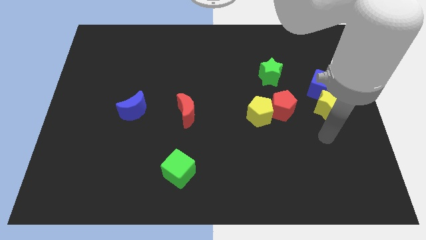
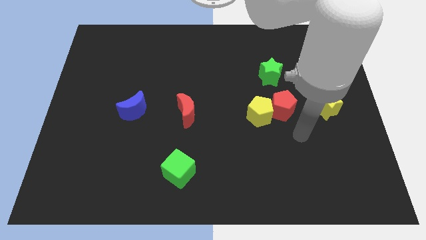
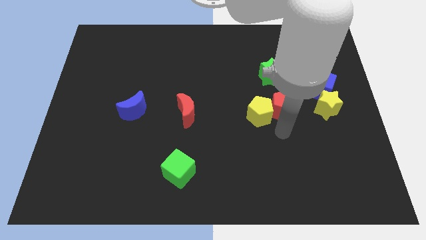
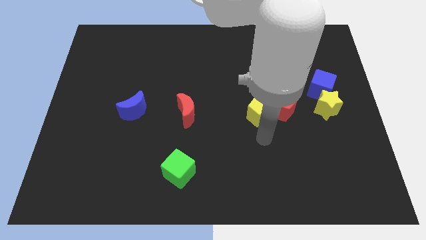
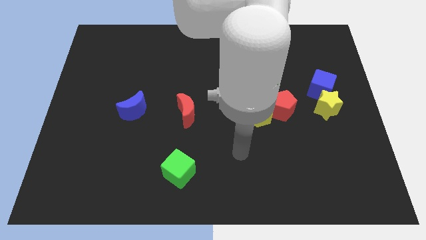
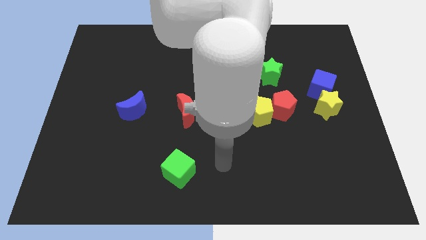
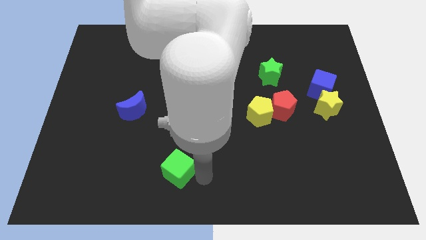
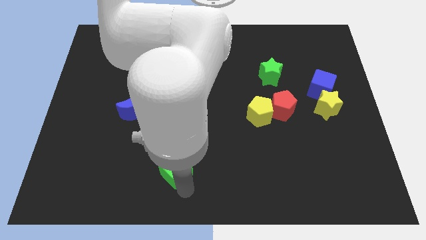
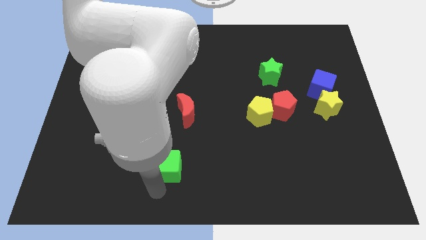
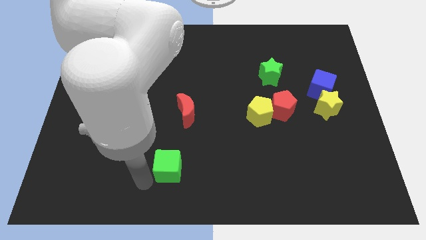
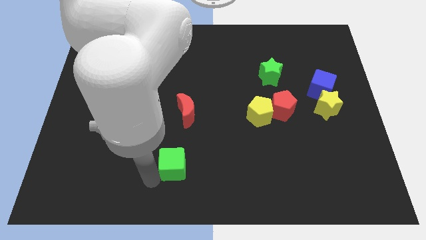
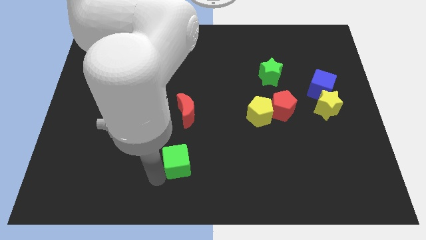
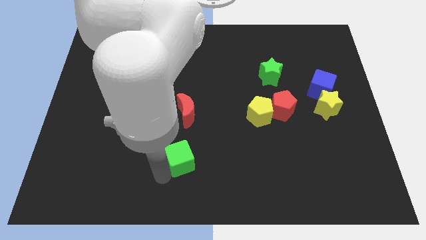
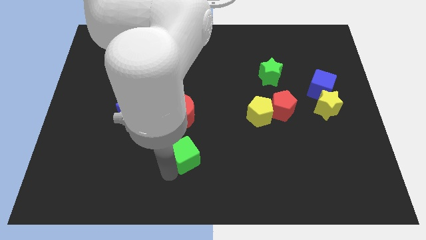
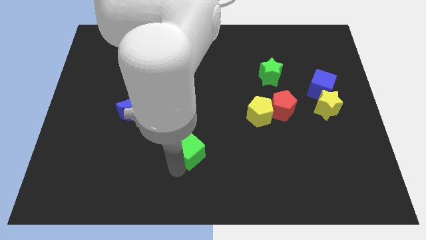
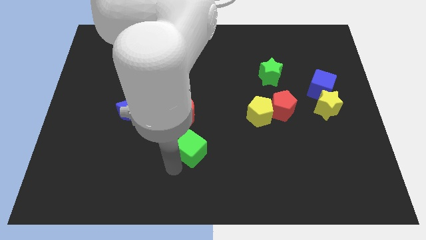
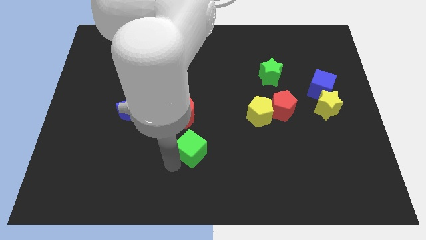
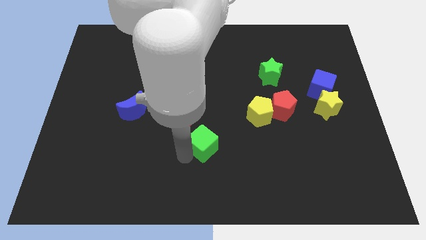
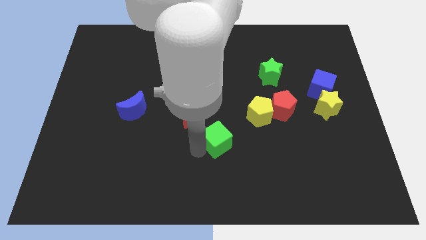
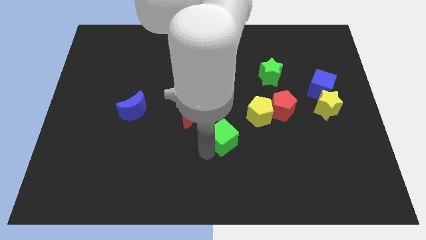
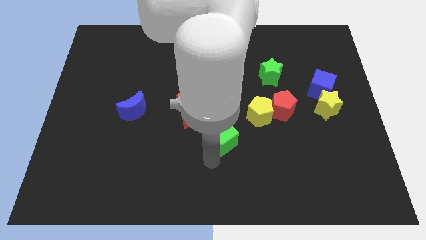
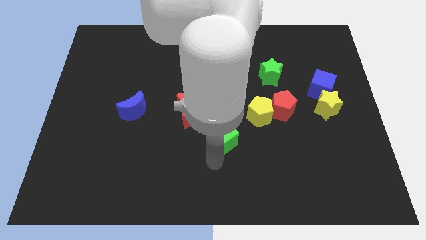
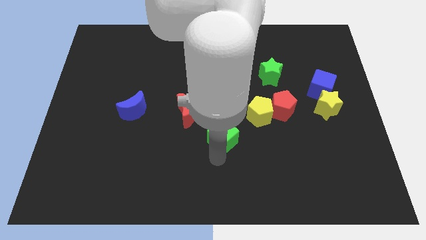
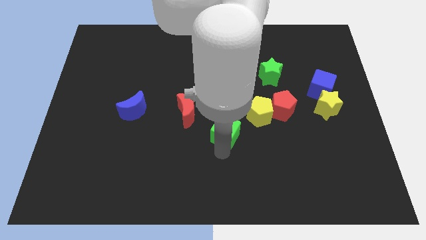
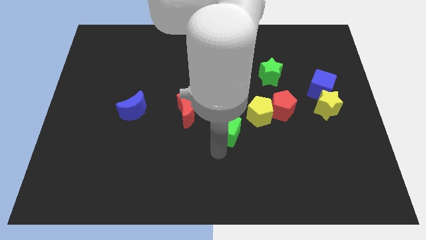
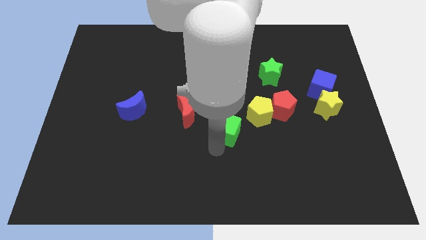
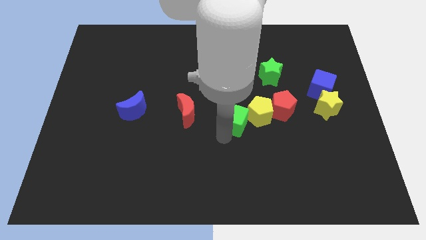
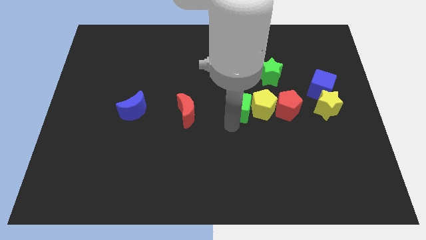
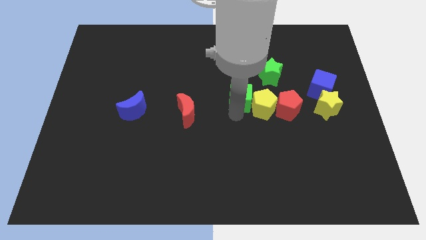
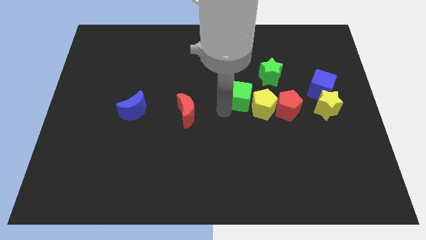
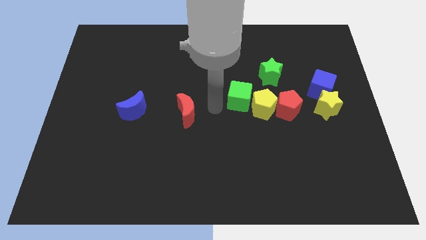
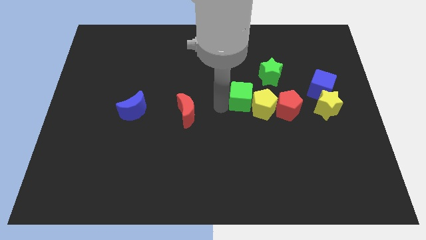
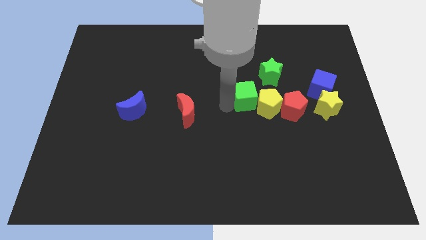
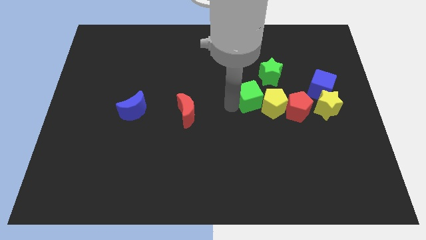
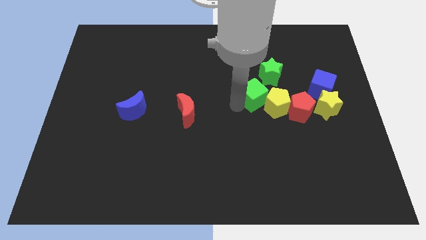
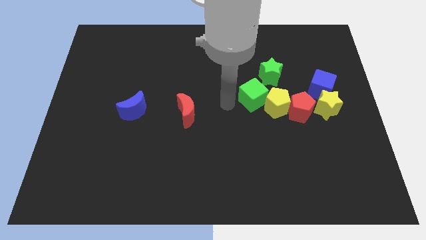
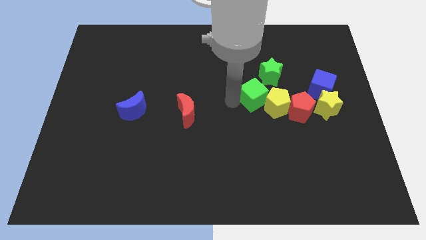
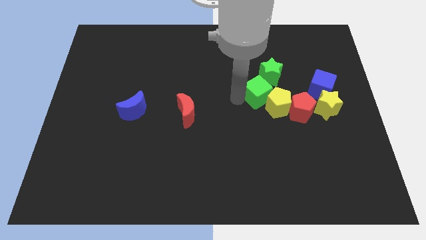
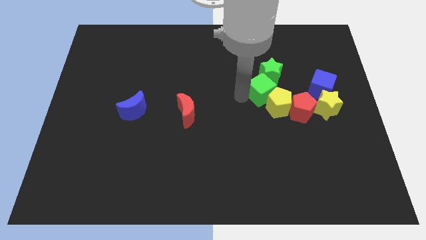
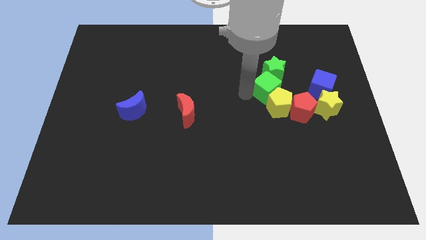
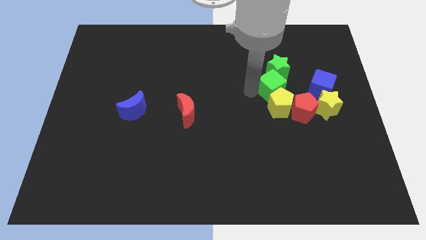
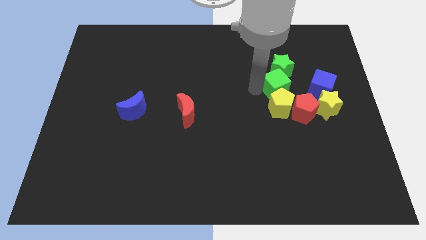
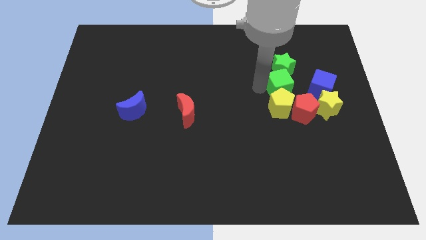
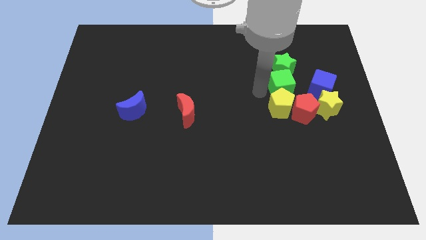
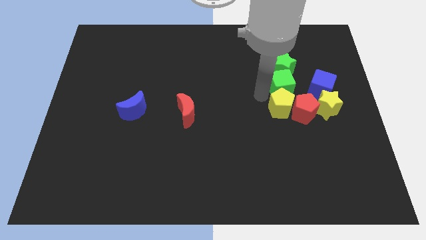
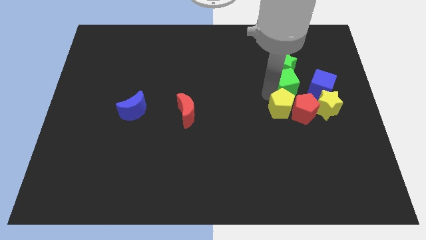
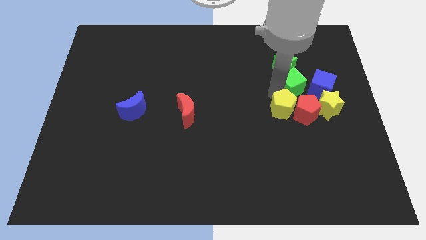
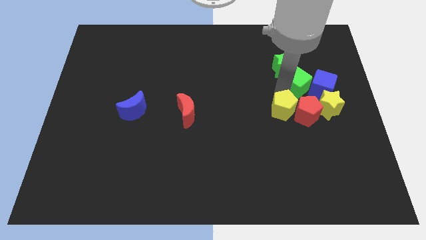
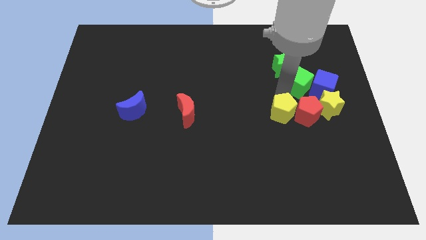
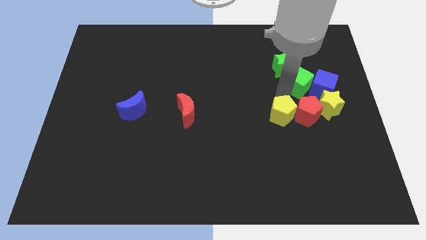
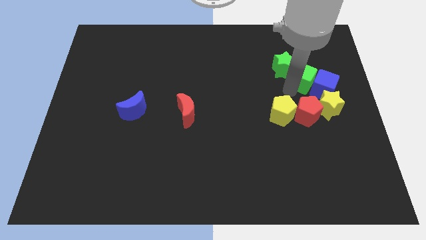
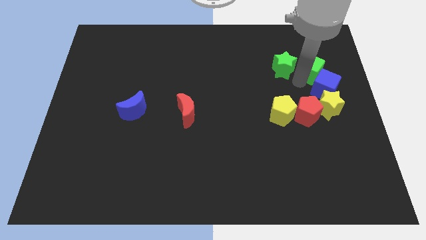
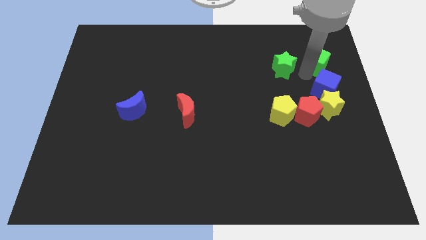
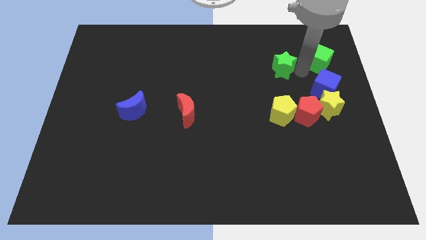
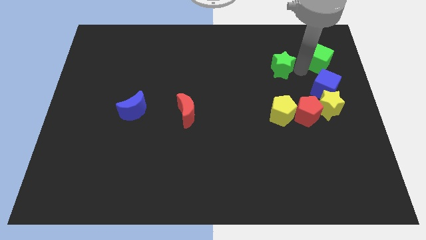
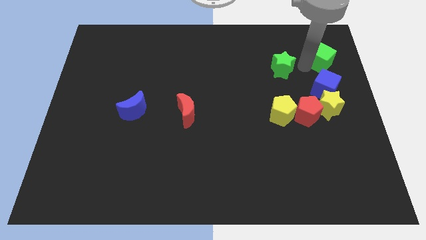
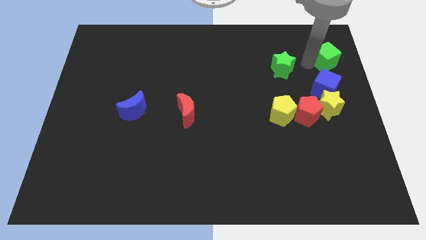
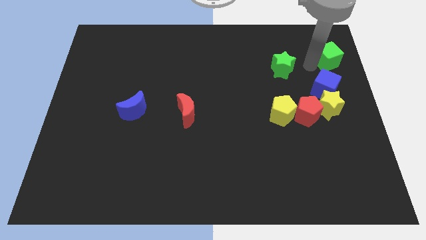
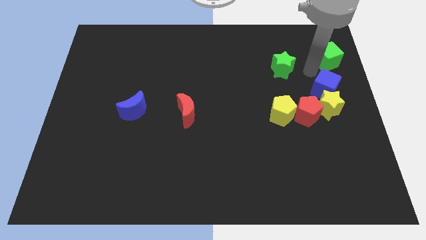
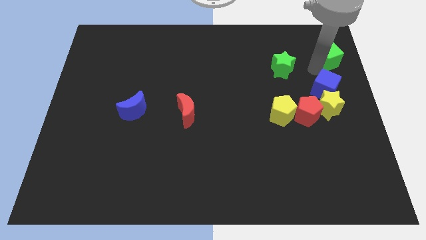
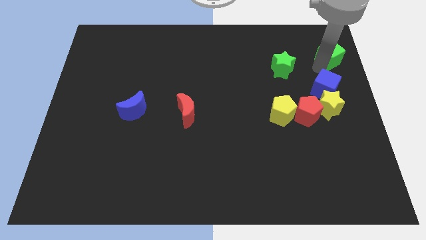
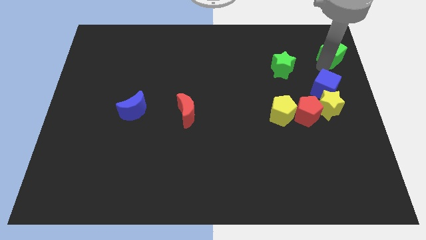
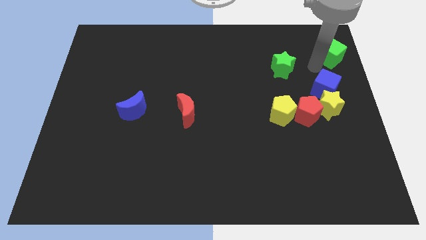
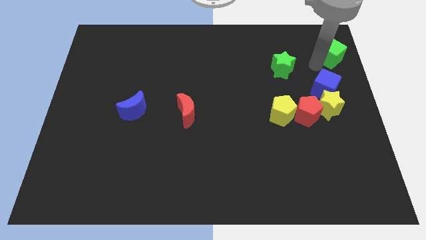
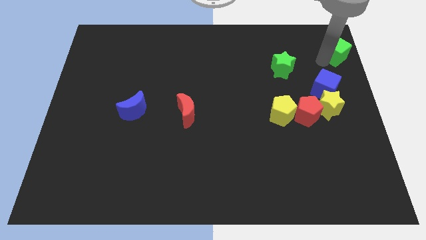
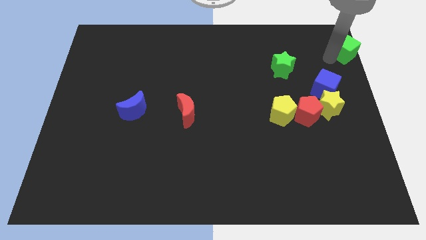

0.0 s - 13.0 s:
put the green cube to the upper right corner
